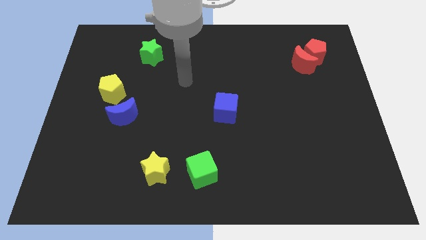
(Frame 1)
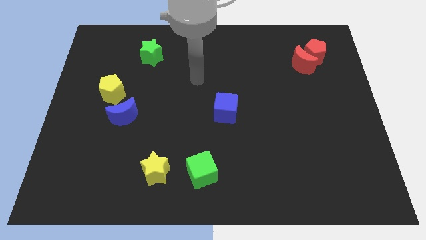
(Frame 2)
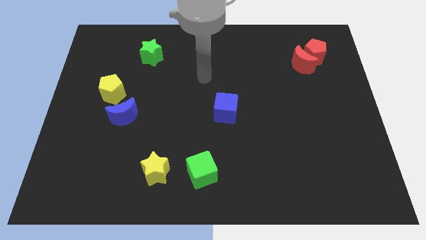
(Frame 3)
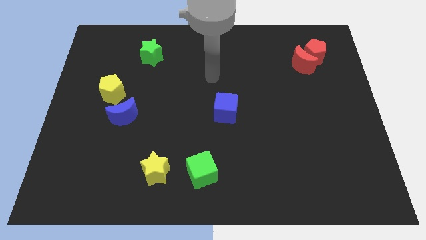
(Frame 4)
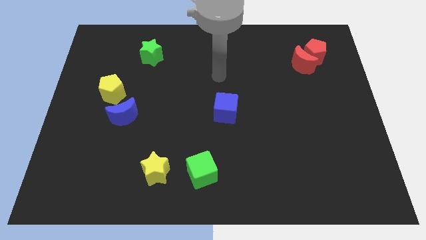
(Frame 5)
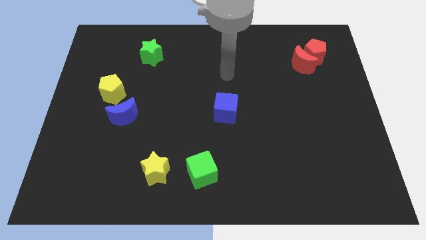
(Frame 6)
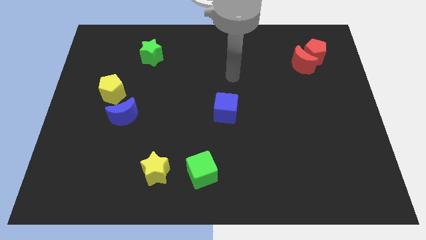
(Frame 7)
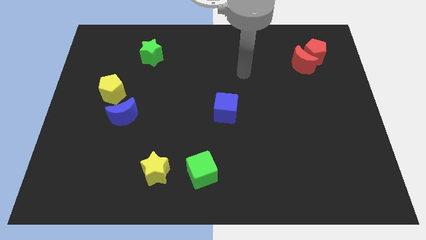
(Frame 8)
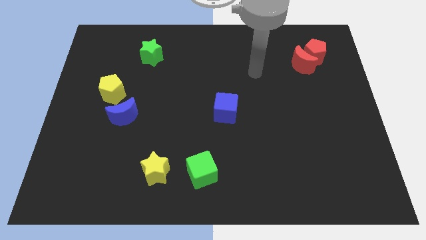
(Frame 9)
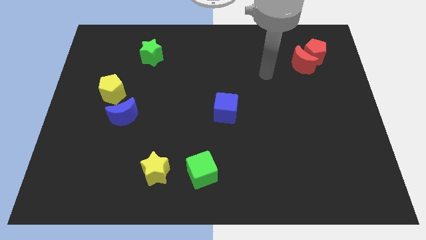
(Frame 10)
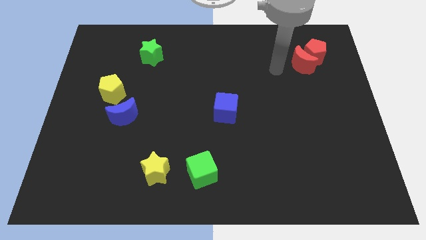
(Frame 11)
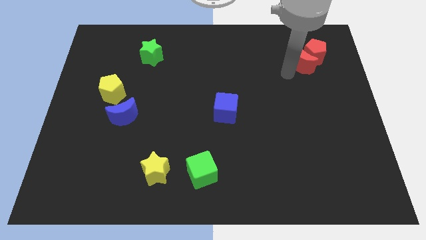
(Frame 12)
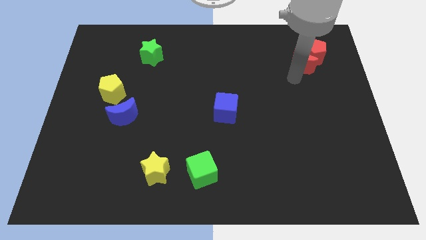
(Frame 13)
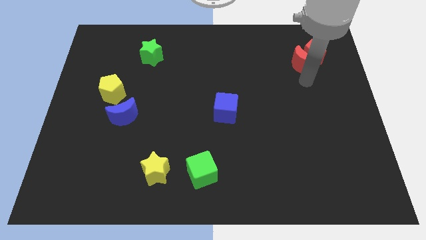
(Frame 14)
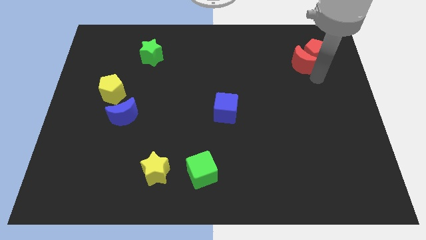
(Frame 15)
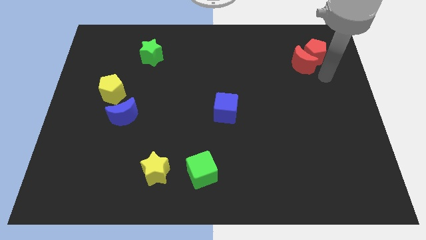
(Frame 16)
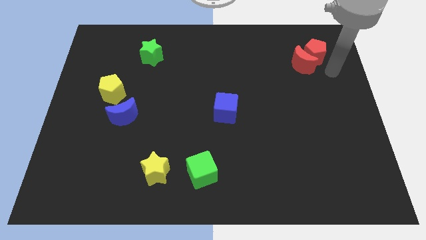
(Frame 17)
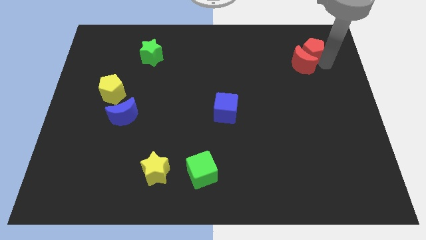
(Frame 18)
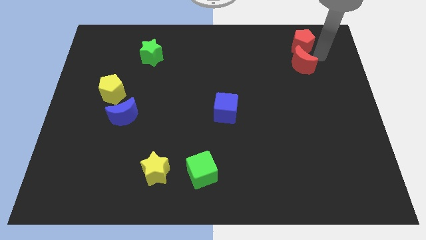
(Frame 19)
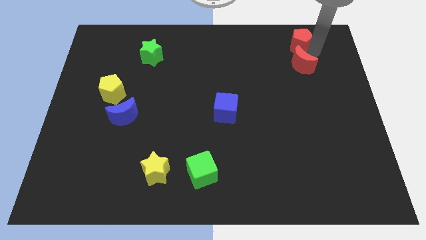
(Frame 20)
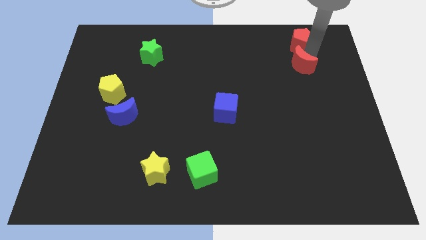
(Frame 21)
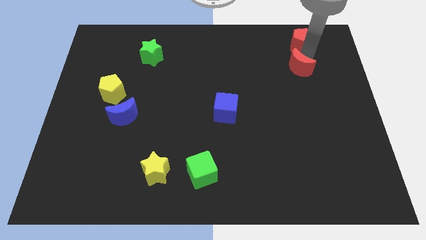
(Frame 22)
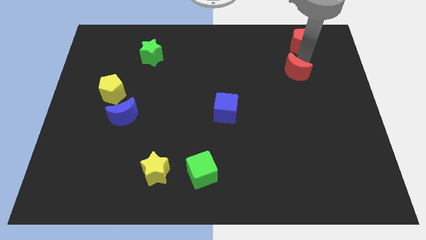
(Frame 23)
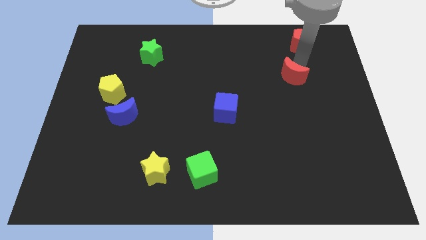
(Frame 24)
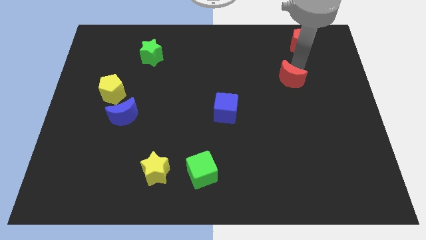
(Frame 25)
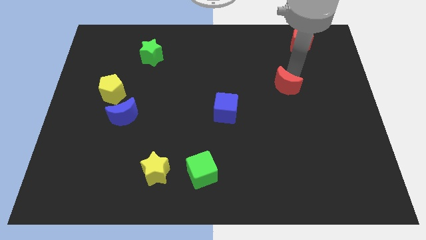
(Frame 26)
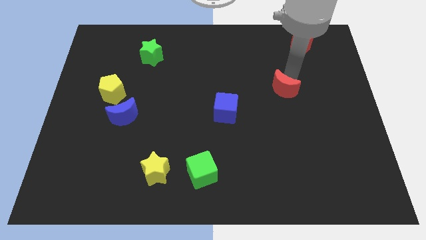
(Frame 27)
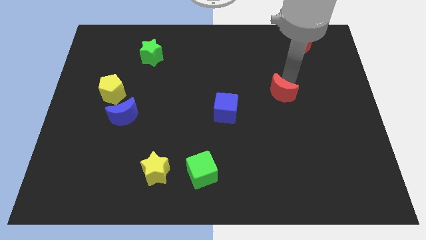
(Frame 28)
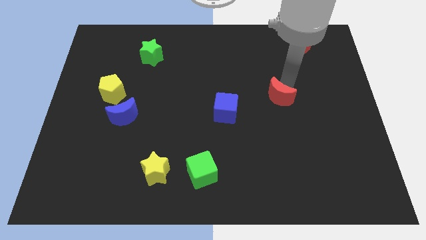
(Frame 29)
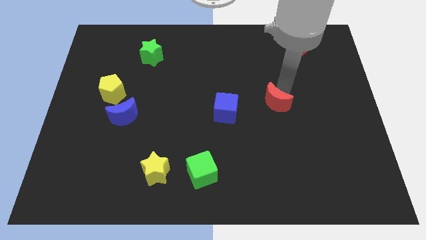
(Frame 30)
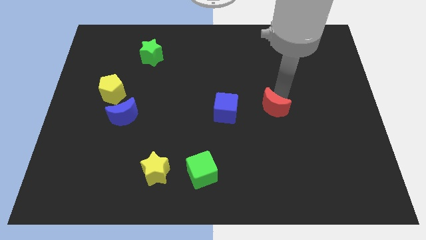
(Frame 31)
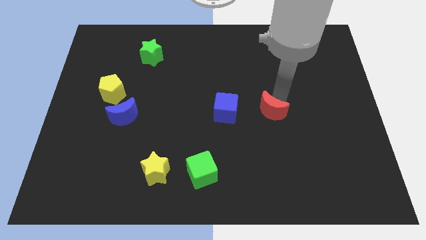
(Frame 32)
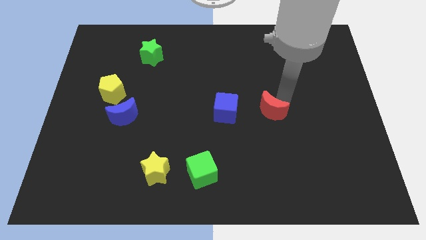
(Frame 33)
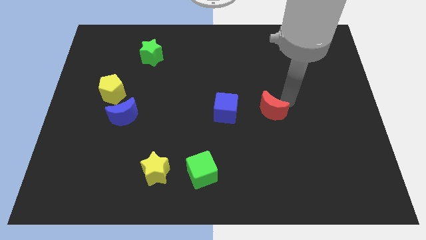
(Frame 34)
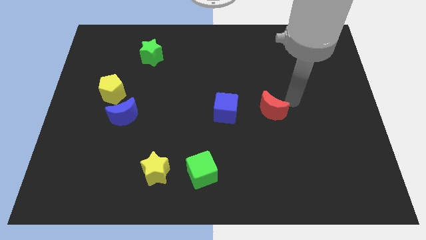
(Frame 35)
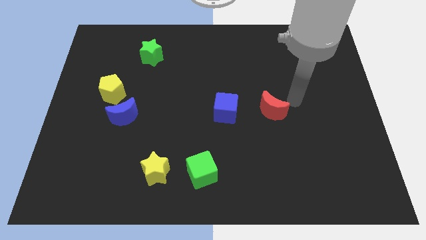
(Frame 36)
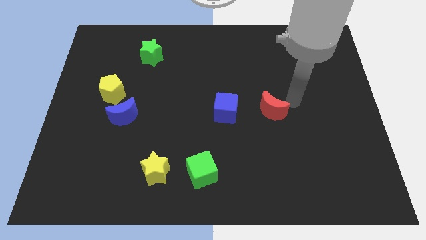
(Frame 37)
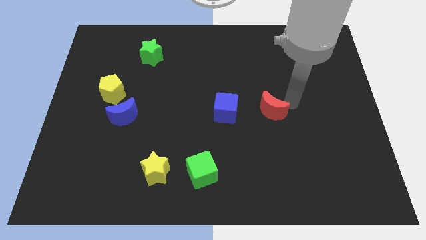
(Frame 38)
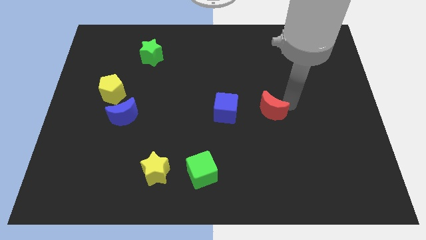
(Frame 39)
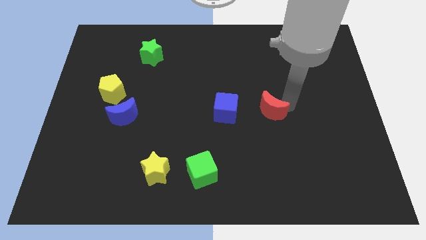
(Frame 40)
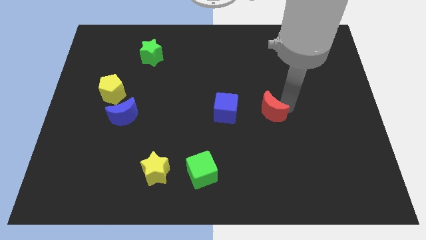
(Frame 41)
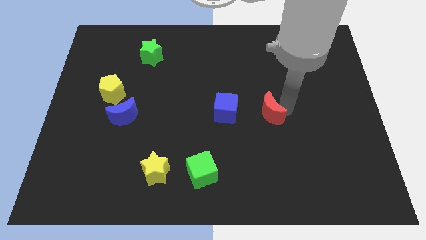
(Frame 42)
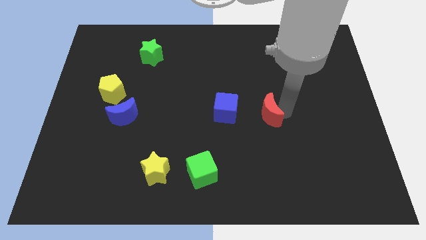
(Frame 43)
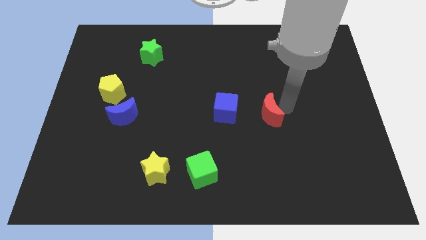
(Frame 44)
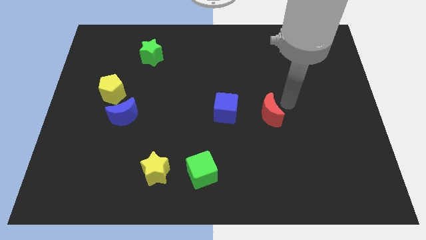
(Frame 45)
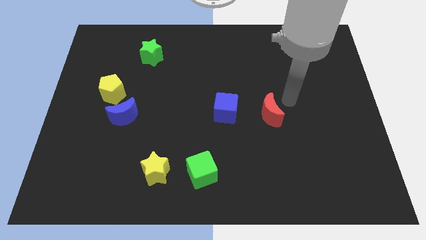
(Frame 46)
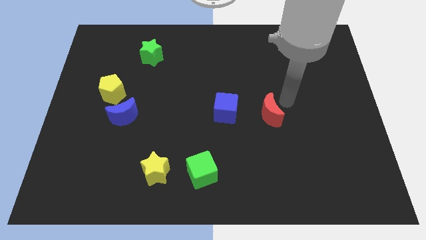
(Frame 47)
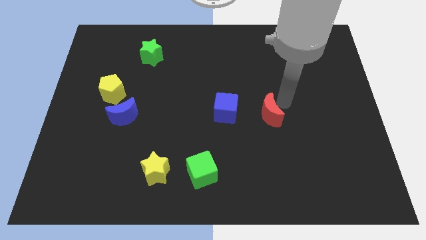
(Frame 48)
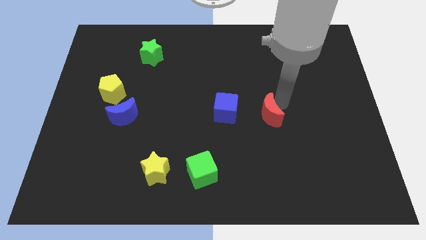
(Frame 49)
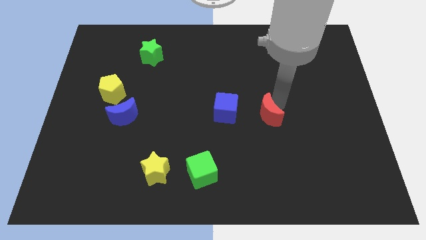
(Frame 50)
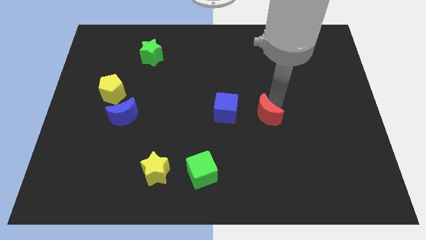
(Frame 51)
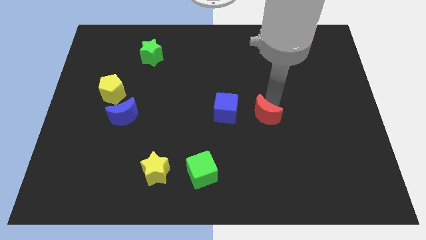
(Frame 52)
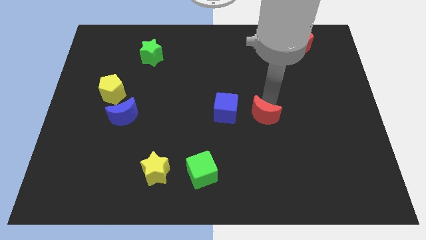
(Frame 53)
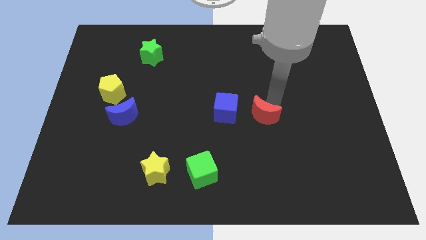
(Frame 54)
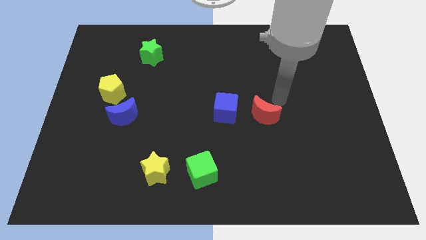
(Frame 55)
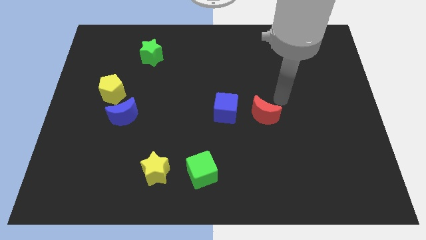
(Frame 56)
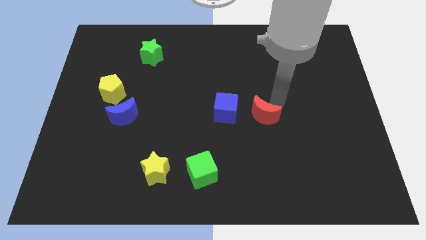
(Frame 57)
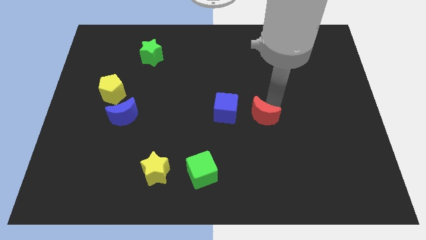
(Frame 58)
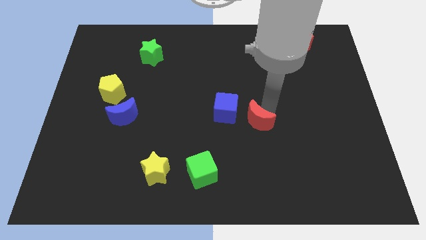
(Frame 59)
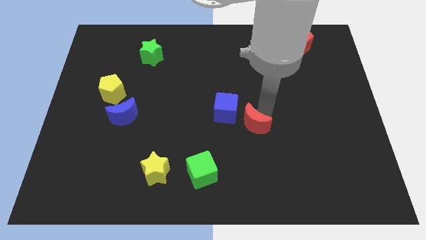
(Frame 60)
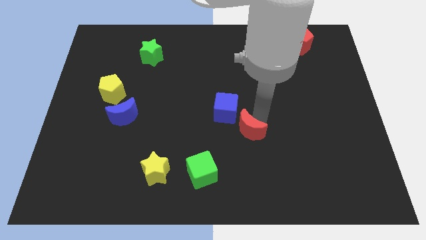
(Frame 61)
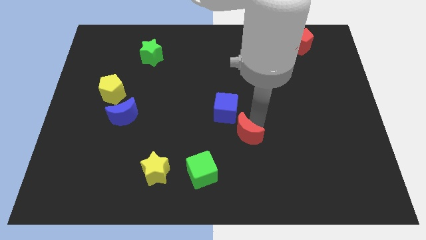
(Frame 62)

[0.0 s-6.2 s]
slide the red moon below the blue cube

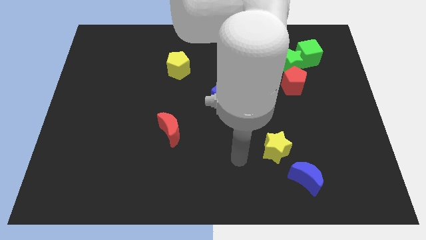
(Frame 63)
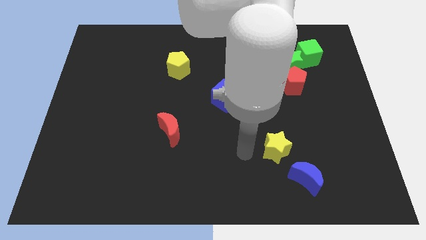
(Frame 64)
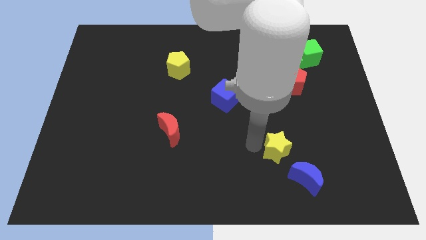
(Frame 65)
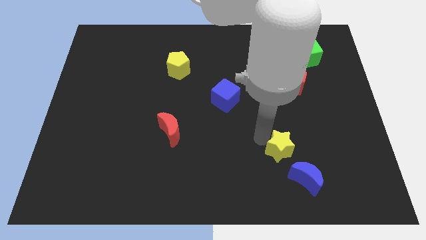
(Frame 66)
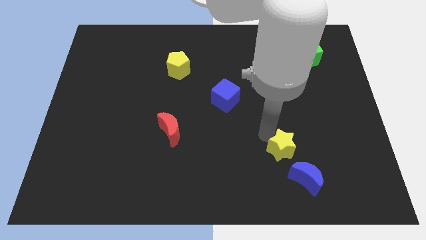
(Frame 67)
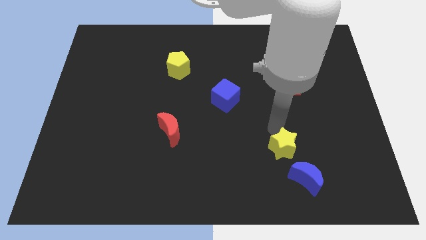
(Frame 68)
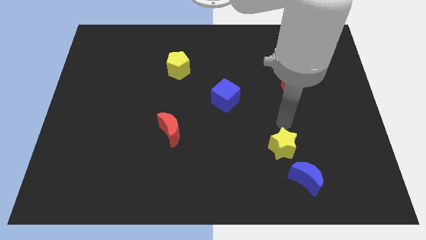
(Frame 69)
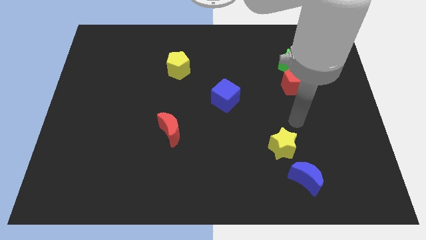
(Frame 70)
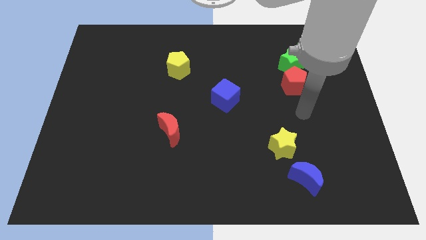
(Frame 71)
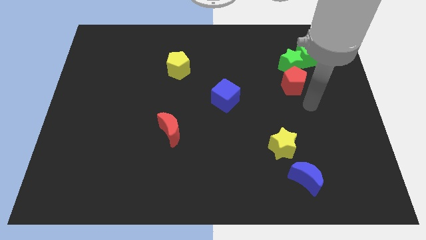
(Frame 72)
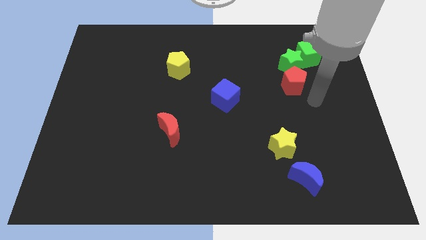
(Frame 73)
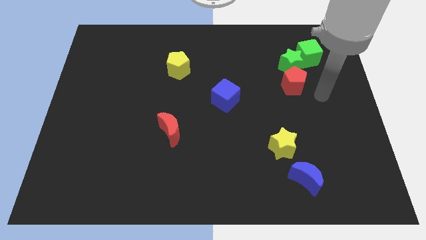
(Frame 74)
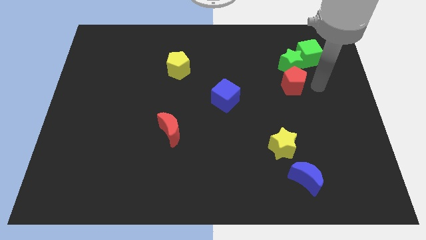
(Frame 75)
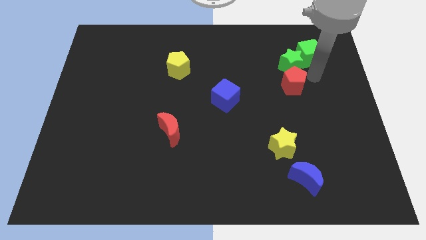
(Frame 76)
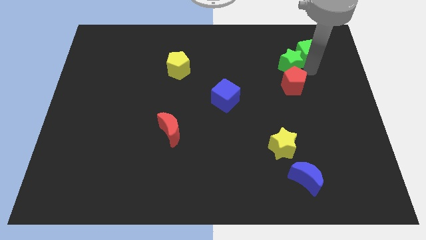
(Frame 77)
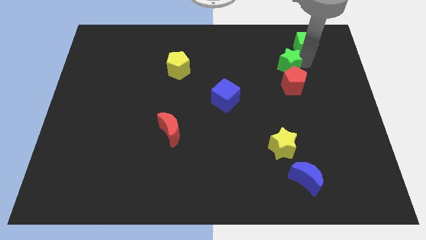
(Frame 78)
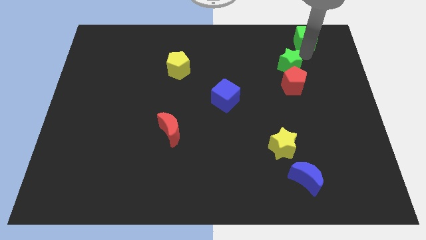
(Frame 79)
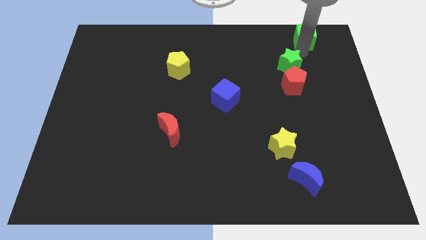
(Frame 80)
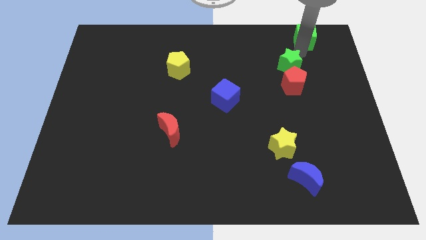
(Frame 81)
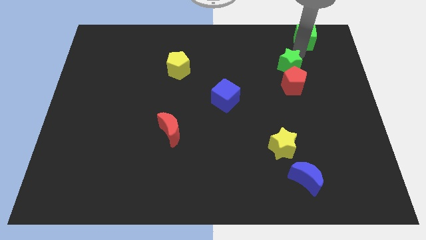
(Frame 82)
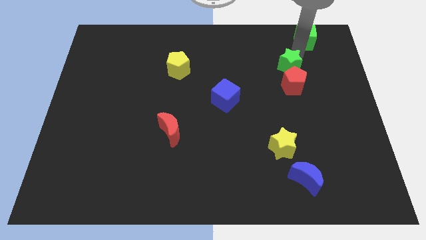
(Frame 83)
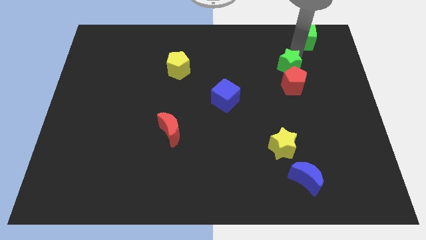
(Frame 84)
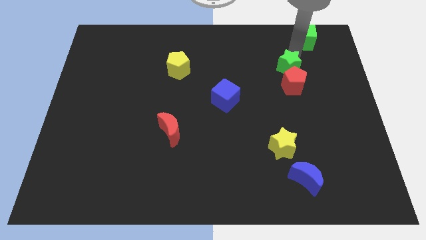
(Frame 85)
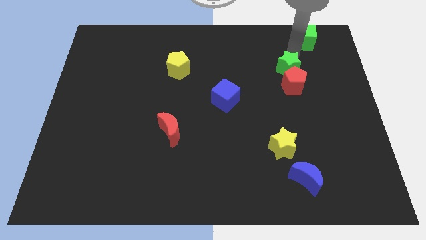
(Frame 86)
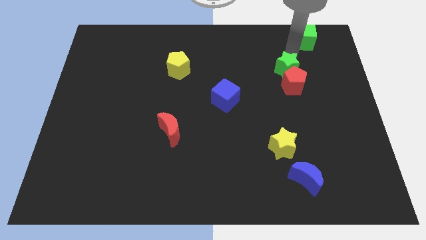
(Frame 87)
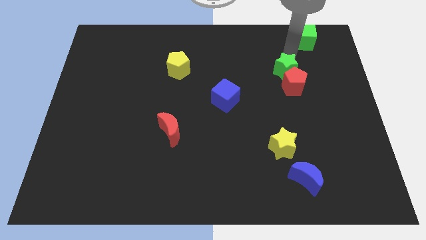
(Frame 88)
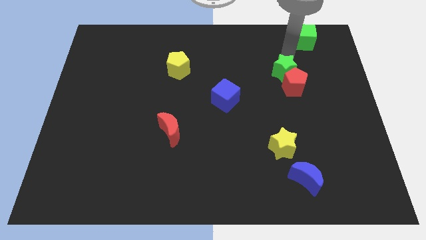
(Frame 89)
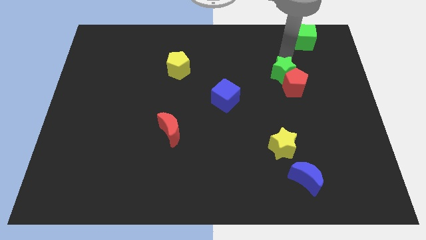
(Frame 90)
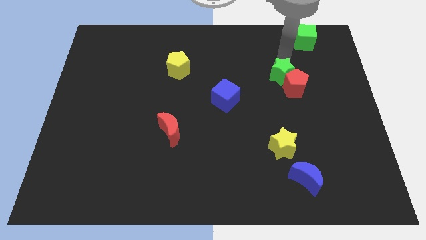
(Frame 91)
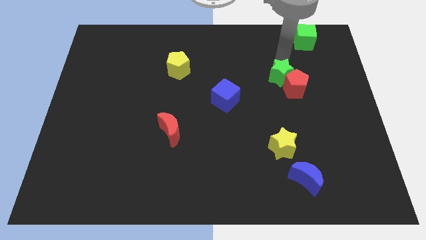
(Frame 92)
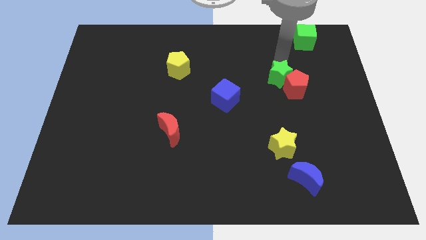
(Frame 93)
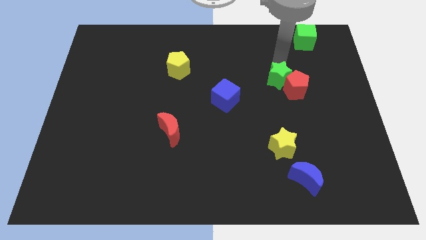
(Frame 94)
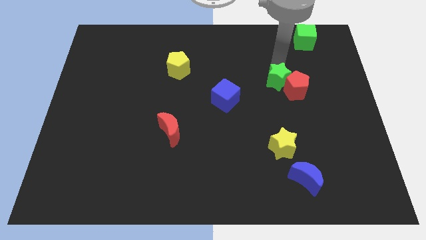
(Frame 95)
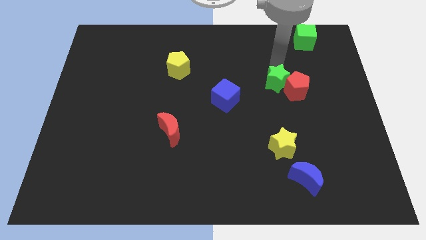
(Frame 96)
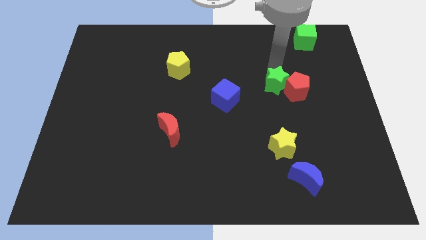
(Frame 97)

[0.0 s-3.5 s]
push the green star right of the blue cube
